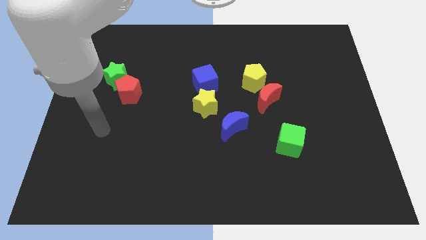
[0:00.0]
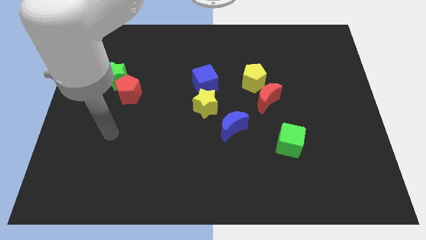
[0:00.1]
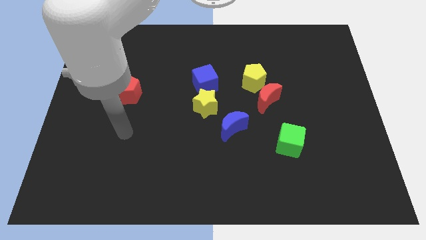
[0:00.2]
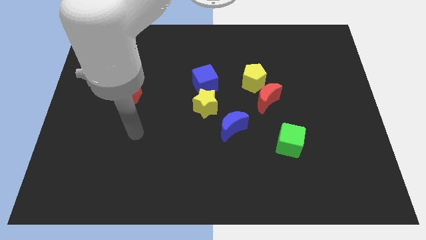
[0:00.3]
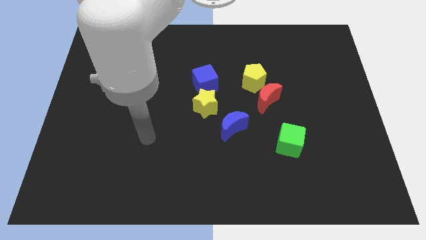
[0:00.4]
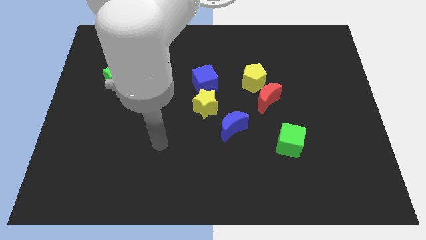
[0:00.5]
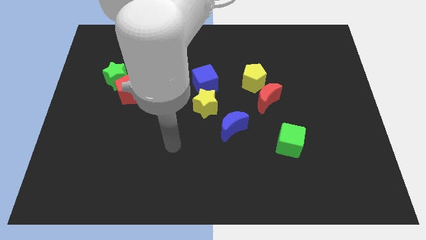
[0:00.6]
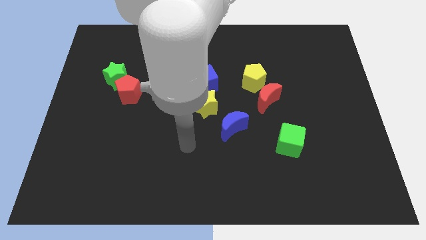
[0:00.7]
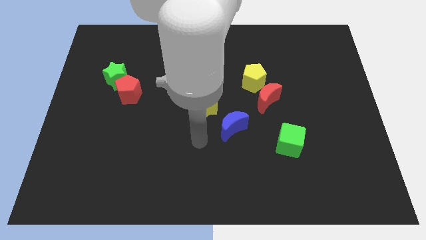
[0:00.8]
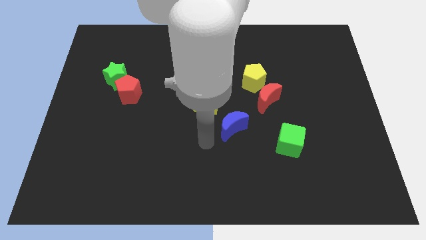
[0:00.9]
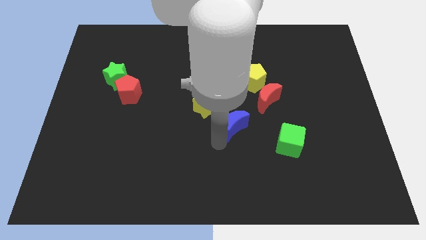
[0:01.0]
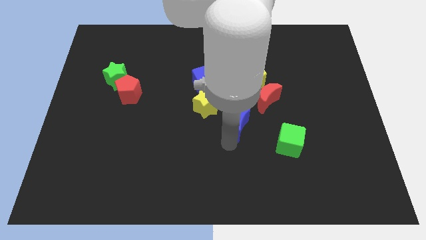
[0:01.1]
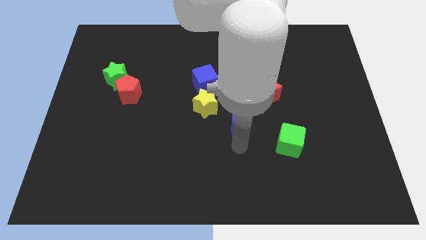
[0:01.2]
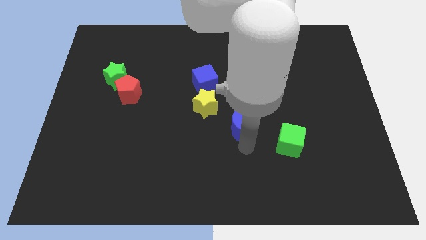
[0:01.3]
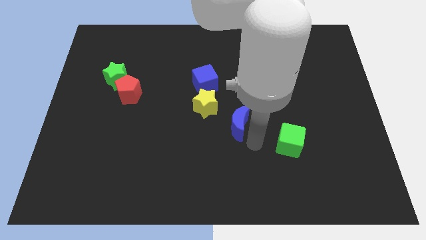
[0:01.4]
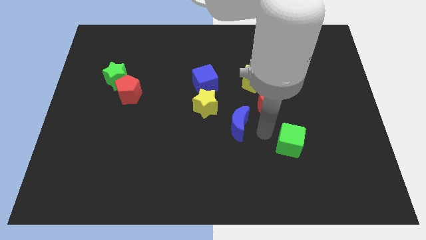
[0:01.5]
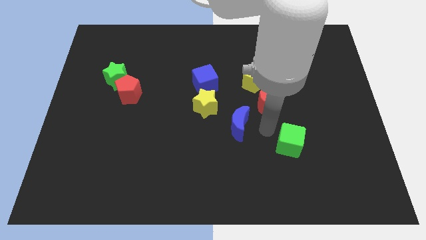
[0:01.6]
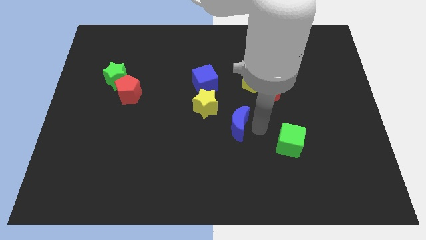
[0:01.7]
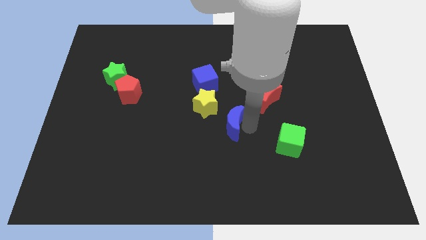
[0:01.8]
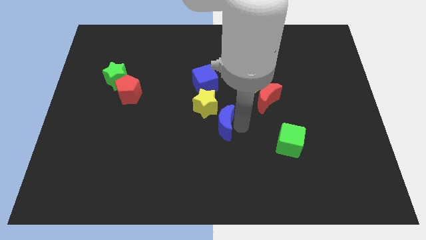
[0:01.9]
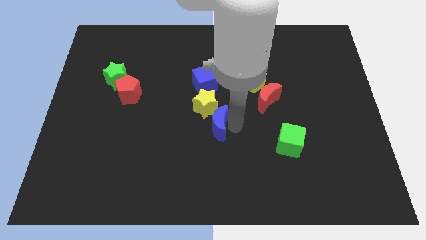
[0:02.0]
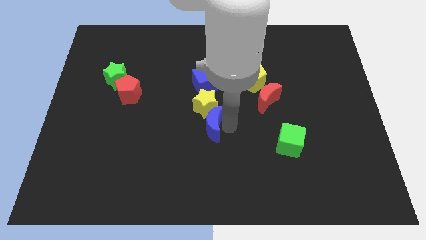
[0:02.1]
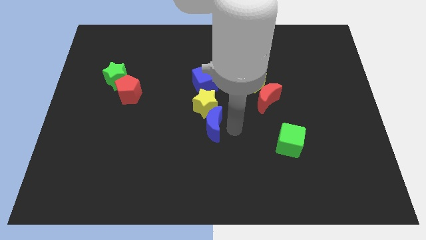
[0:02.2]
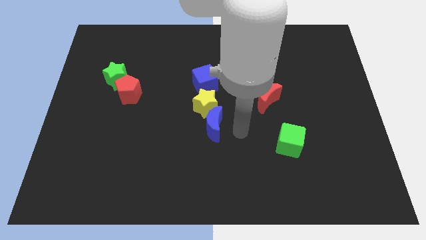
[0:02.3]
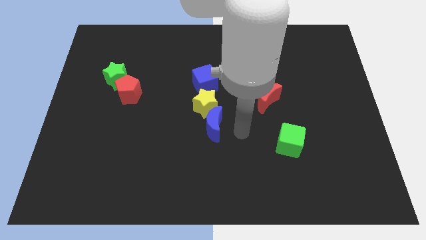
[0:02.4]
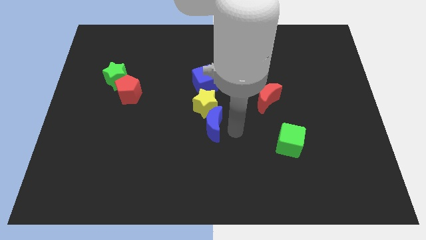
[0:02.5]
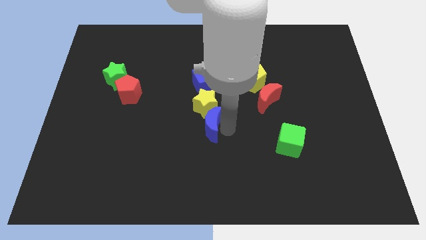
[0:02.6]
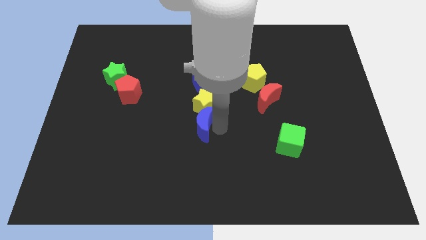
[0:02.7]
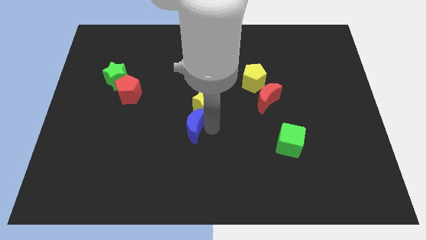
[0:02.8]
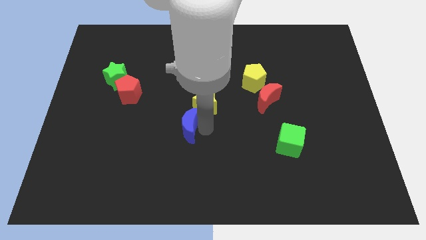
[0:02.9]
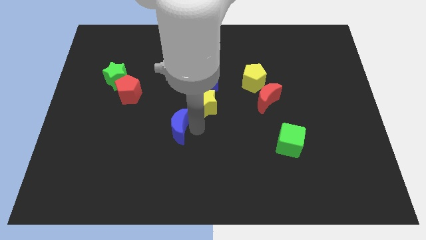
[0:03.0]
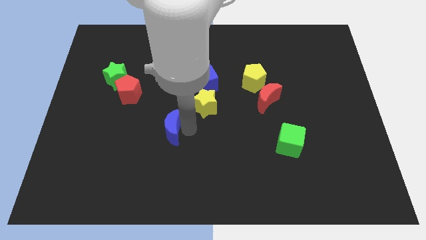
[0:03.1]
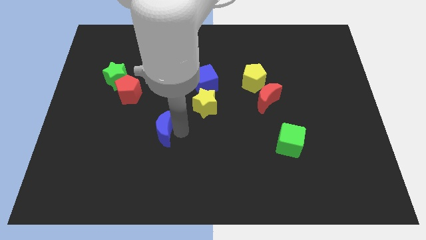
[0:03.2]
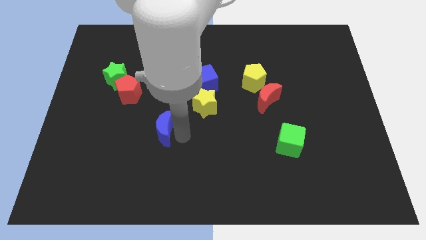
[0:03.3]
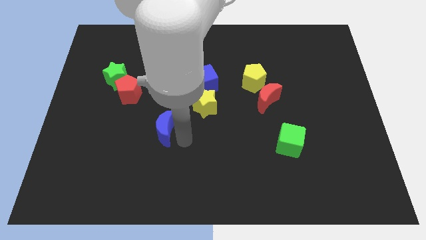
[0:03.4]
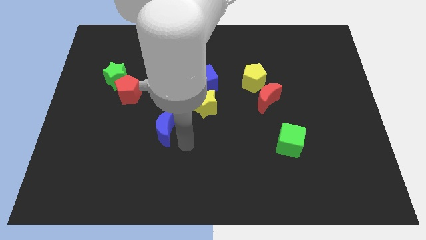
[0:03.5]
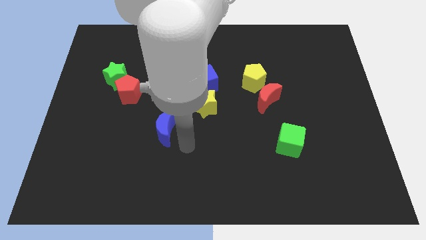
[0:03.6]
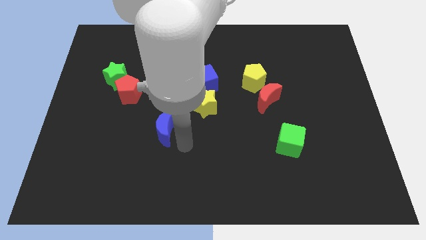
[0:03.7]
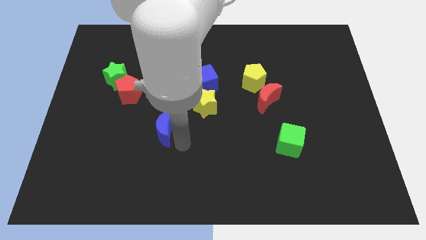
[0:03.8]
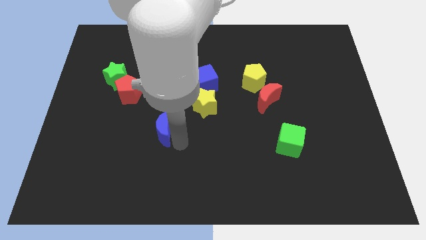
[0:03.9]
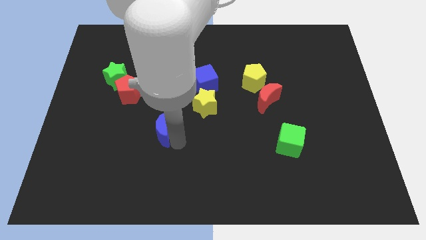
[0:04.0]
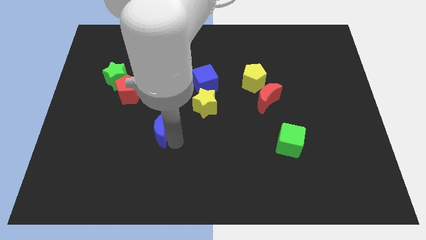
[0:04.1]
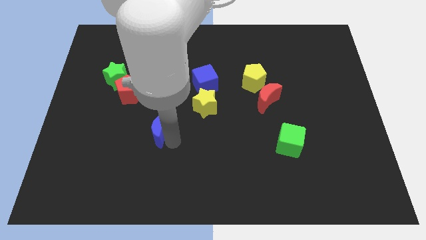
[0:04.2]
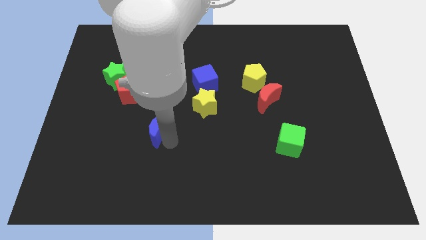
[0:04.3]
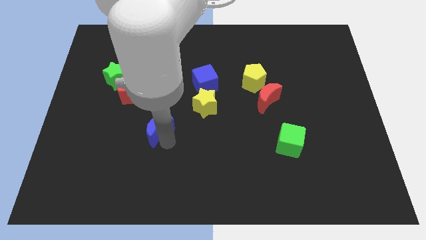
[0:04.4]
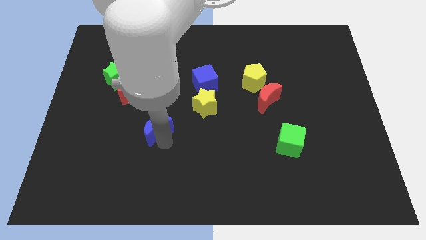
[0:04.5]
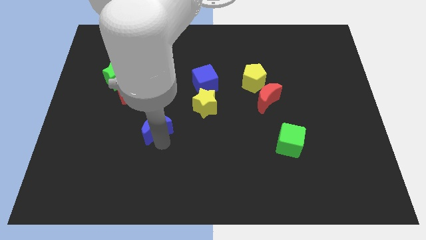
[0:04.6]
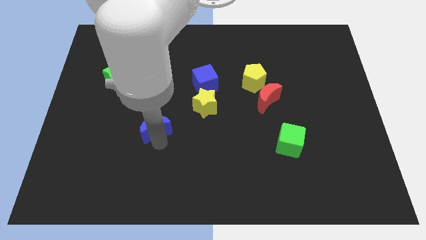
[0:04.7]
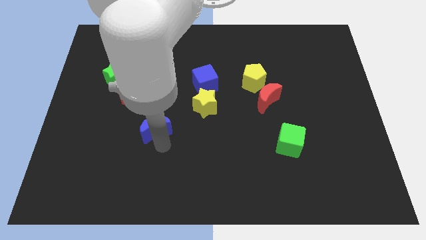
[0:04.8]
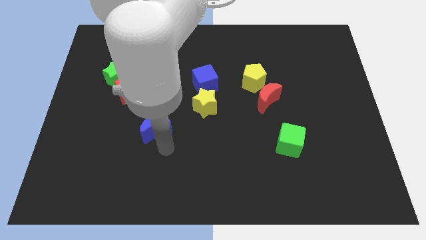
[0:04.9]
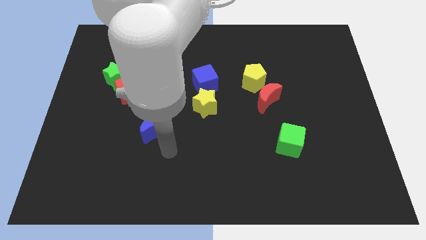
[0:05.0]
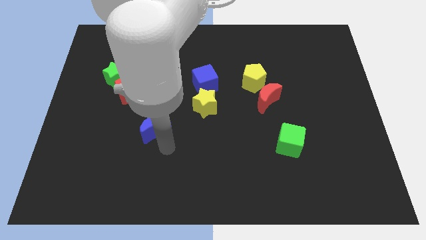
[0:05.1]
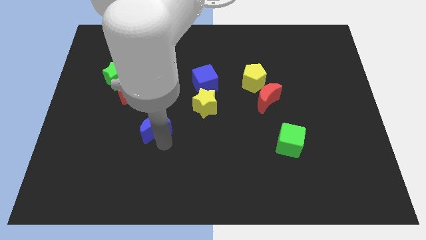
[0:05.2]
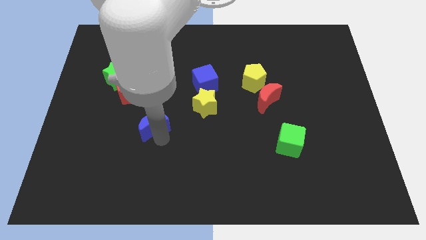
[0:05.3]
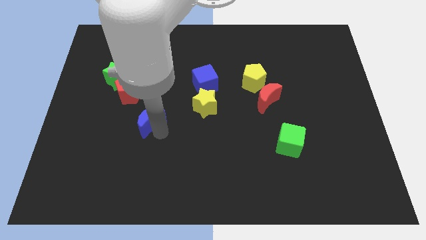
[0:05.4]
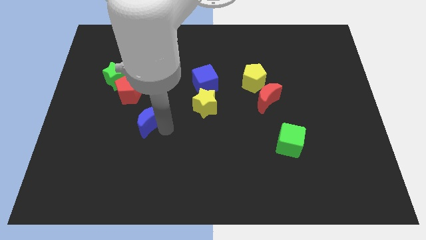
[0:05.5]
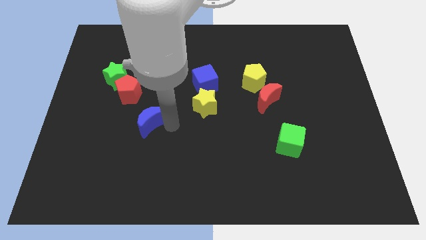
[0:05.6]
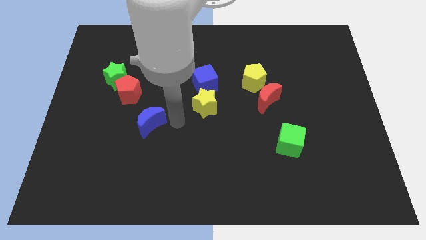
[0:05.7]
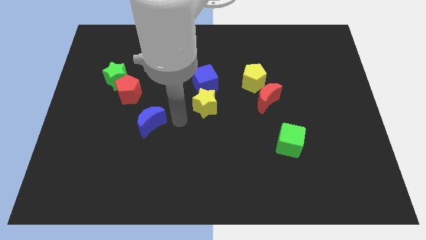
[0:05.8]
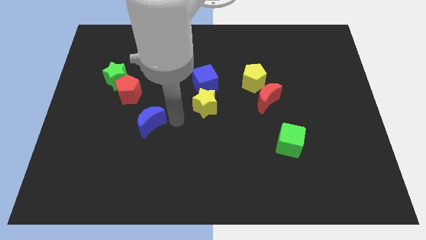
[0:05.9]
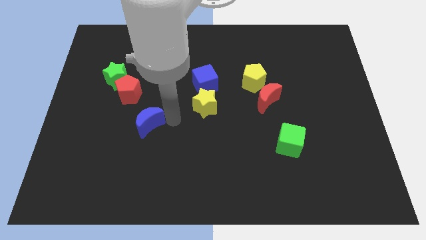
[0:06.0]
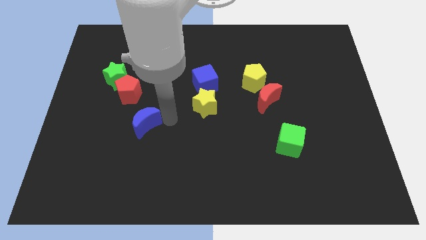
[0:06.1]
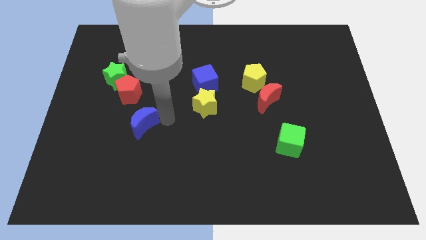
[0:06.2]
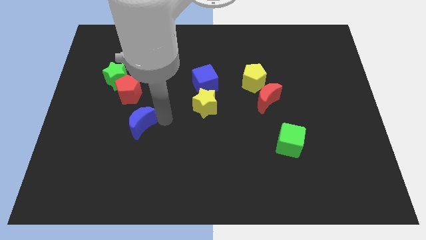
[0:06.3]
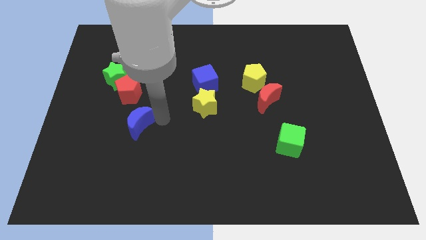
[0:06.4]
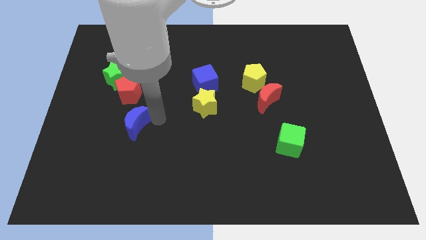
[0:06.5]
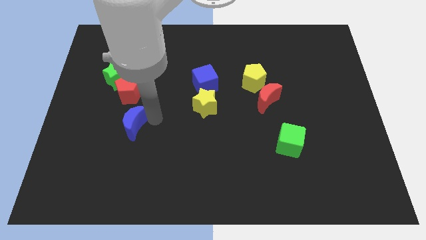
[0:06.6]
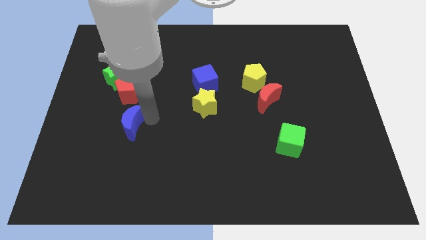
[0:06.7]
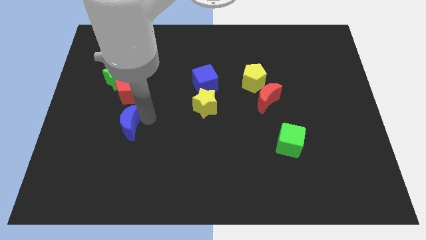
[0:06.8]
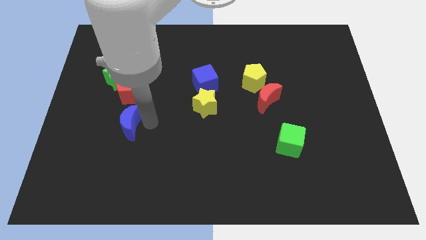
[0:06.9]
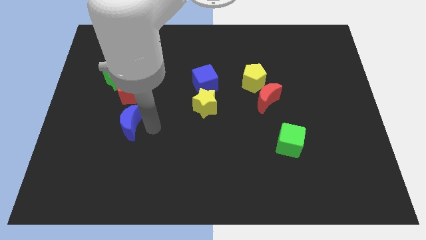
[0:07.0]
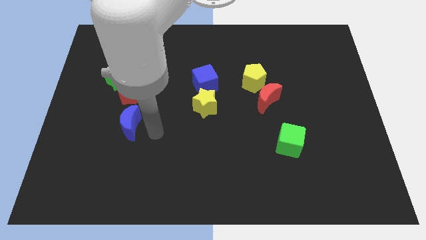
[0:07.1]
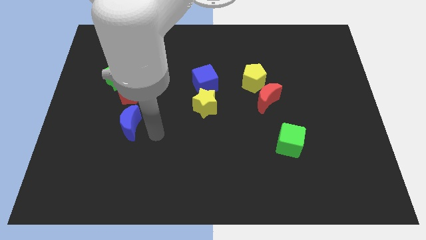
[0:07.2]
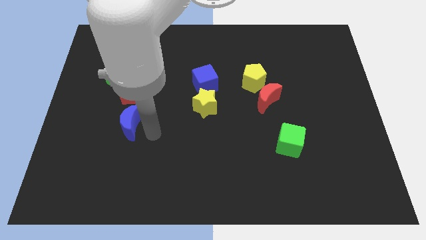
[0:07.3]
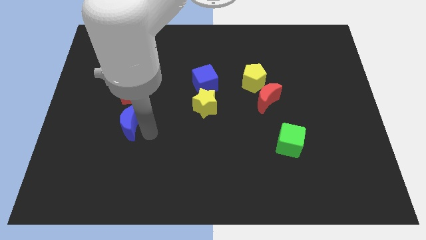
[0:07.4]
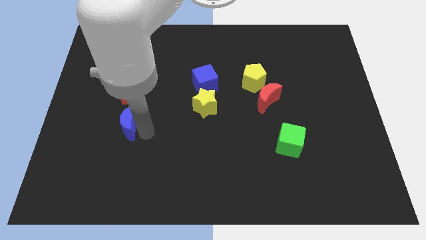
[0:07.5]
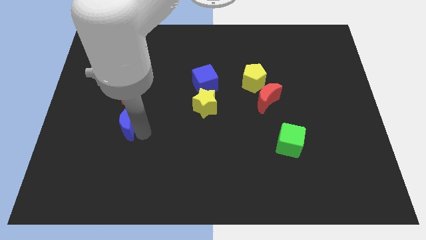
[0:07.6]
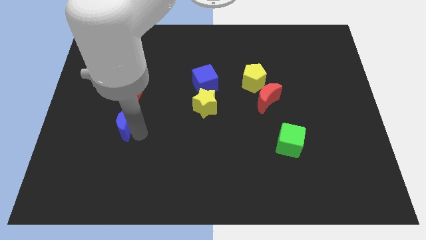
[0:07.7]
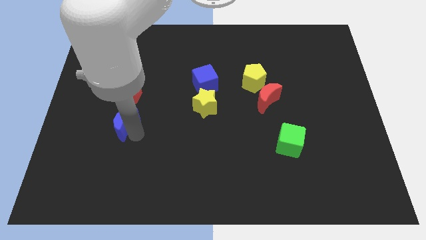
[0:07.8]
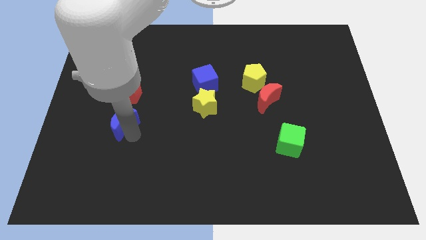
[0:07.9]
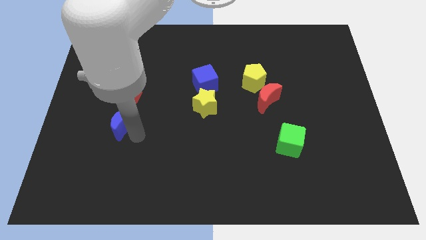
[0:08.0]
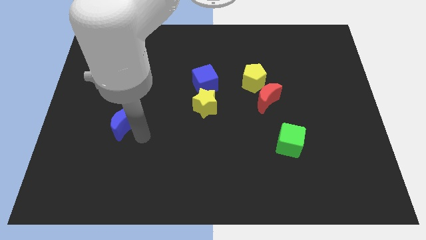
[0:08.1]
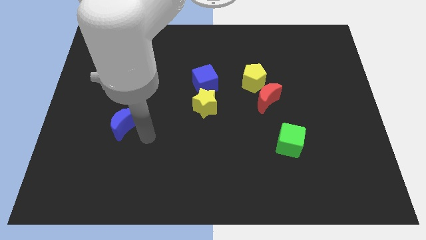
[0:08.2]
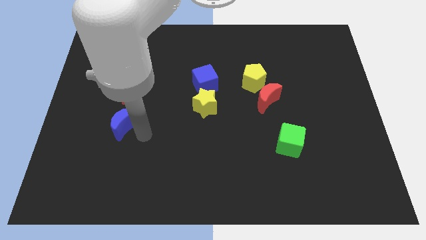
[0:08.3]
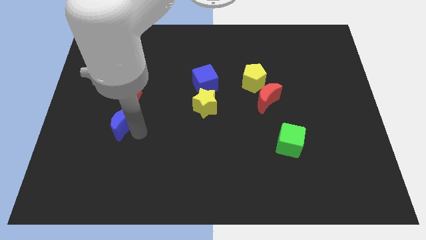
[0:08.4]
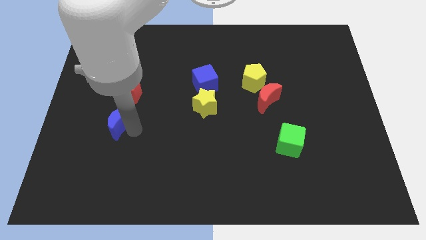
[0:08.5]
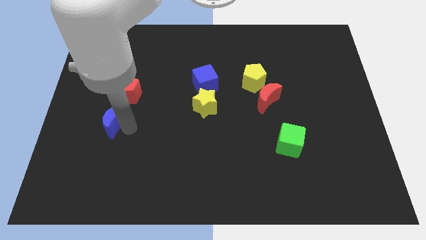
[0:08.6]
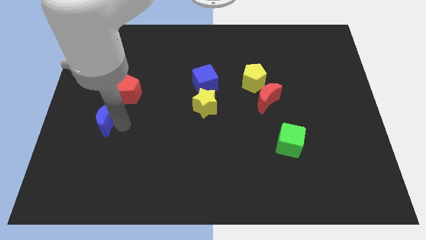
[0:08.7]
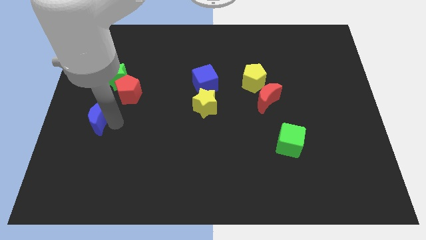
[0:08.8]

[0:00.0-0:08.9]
move the blue moon to the left side
